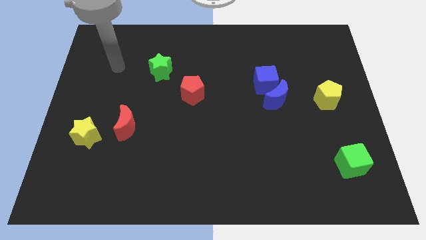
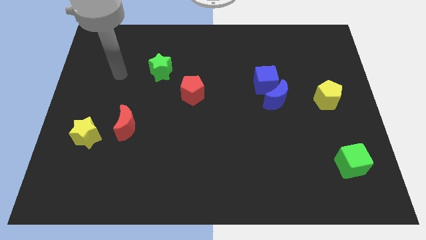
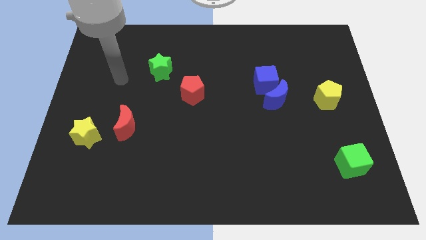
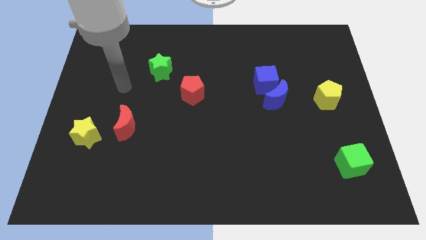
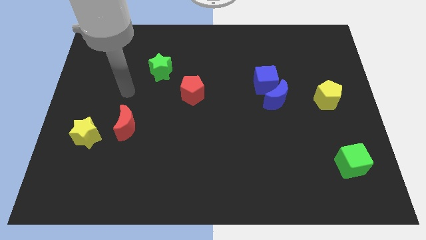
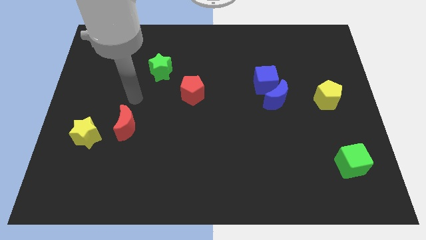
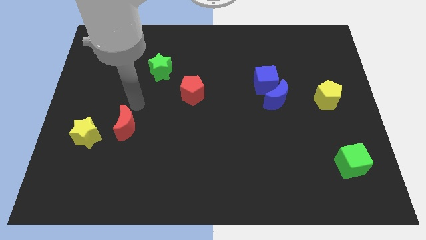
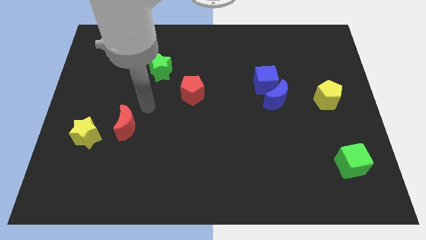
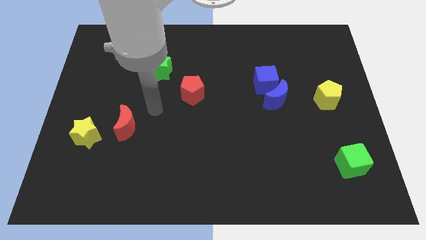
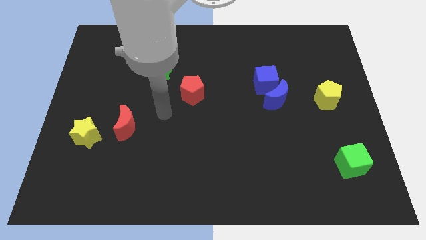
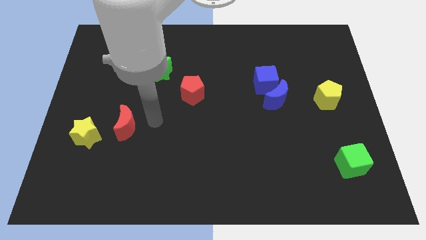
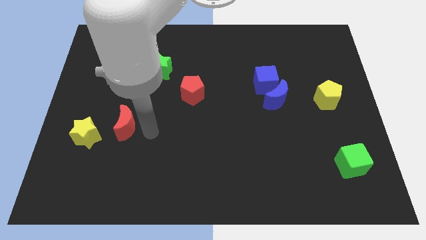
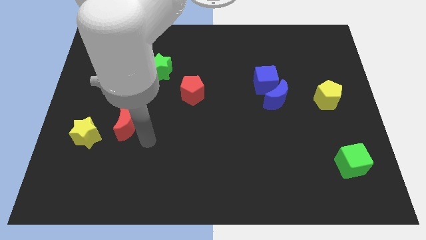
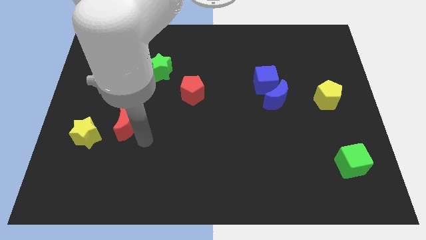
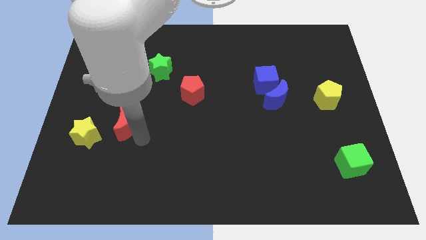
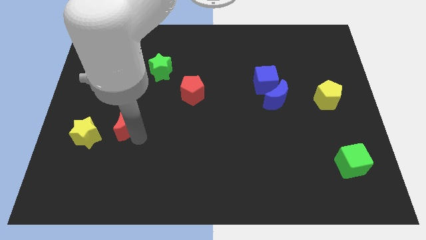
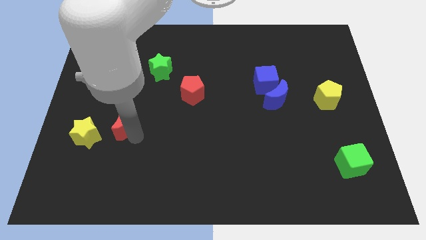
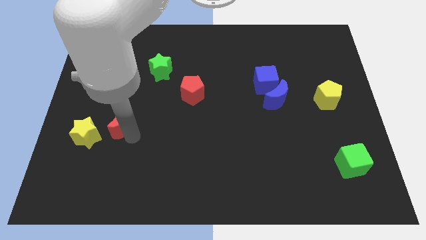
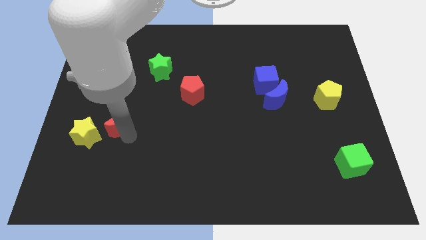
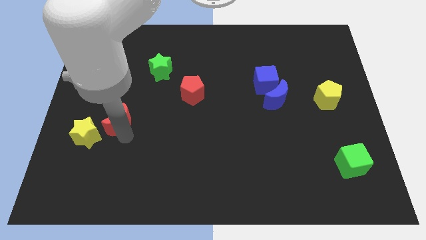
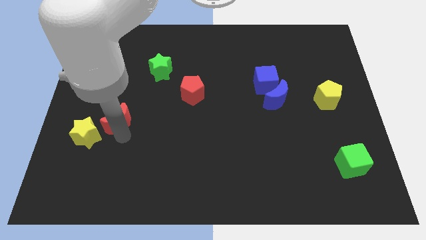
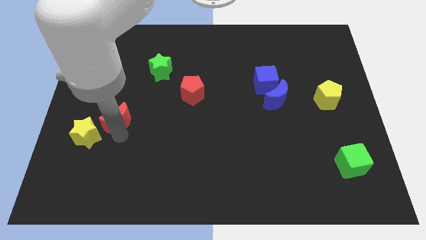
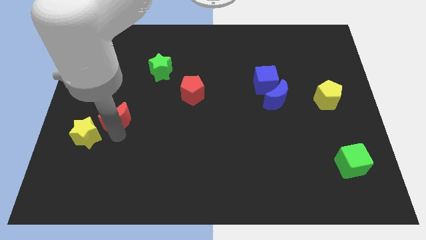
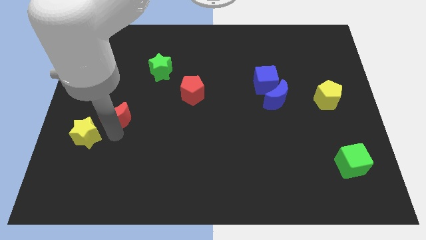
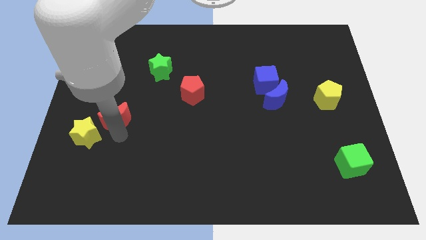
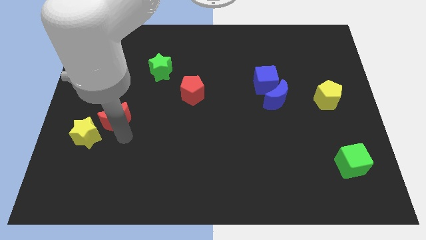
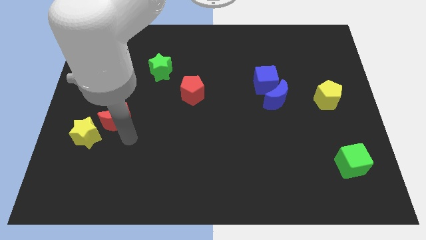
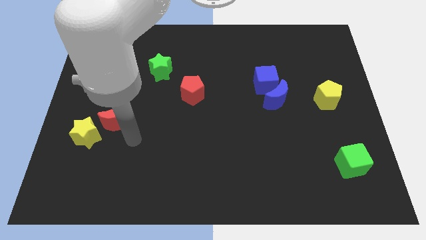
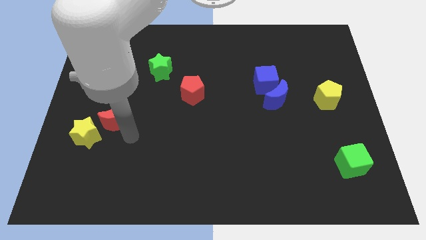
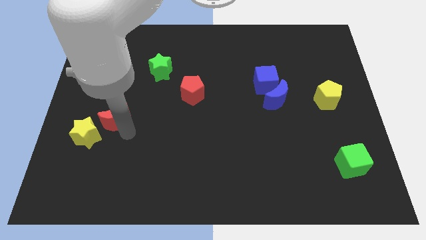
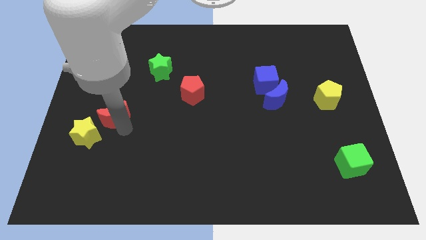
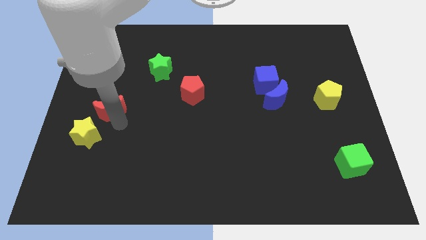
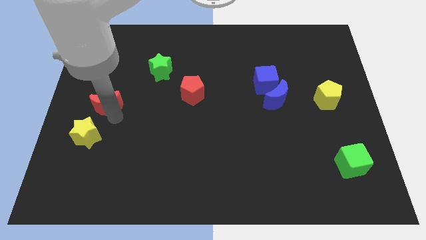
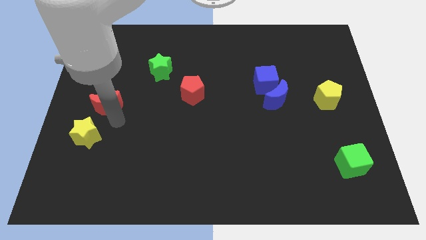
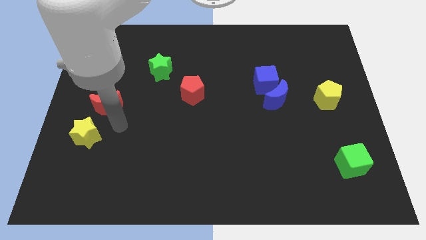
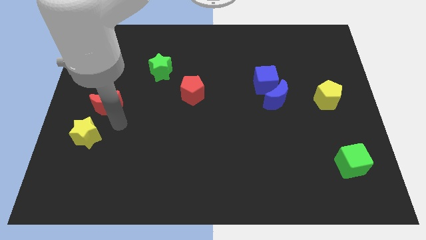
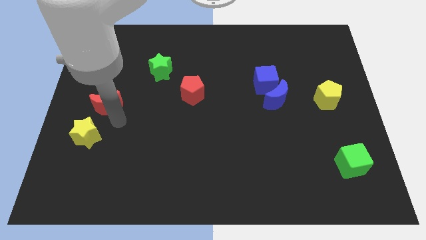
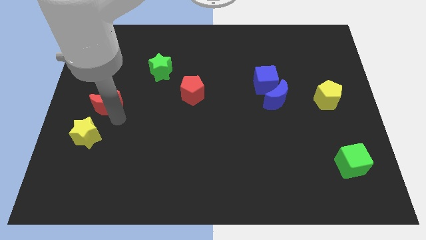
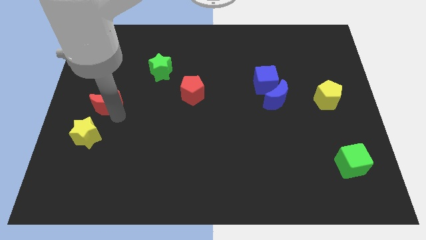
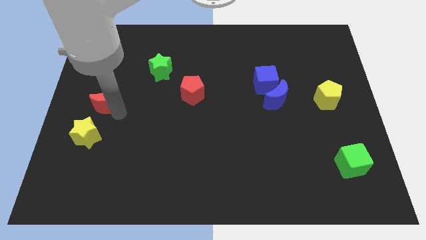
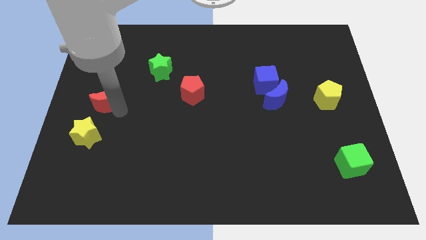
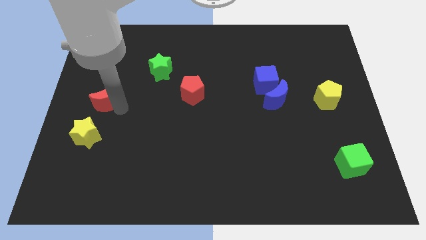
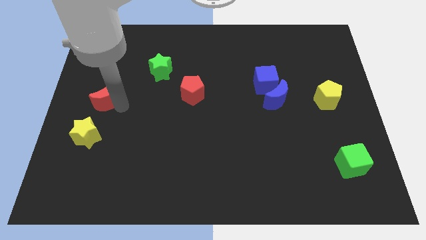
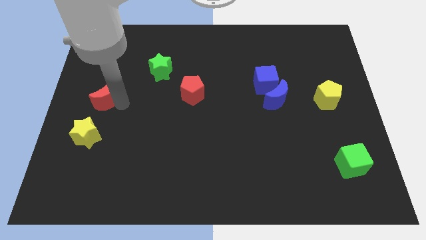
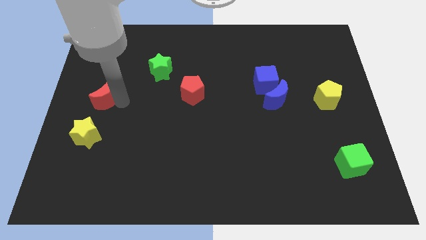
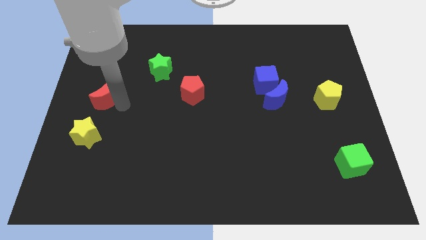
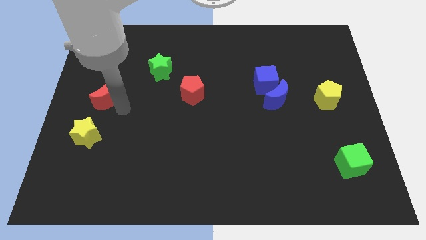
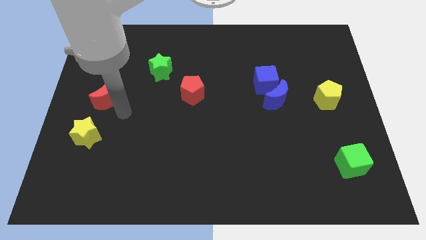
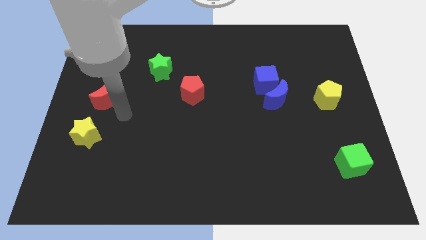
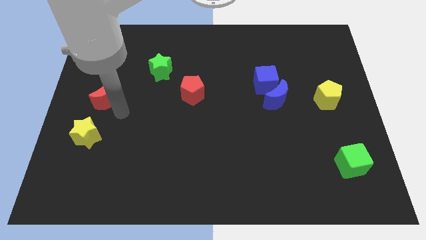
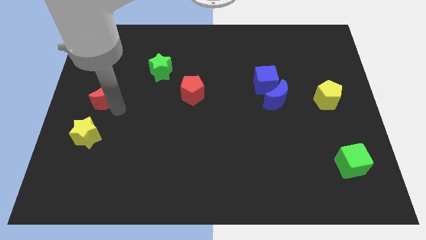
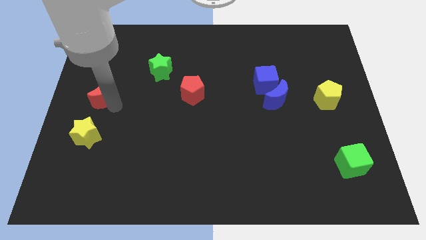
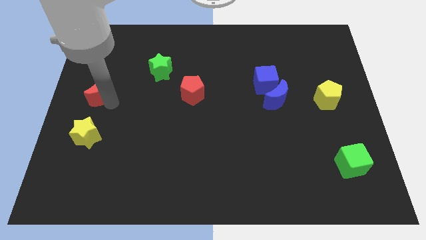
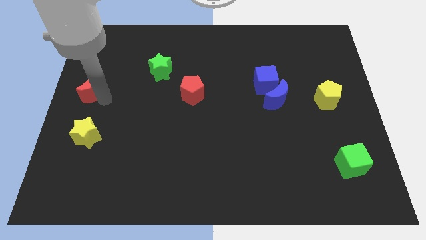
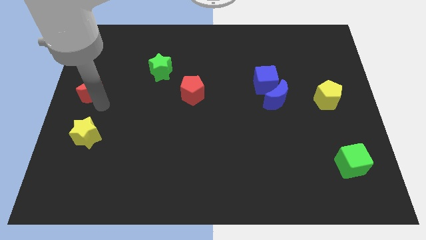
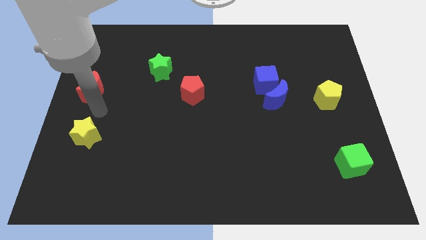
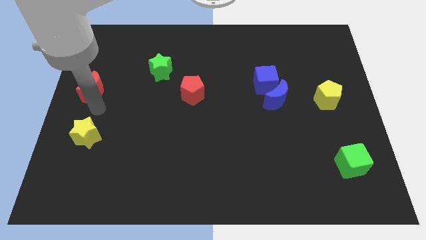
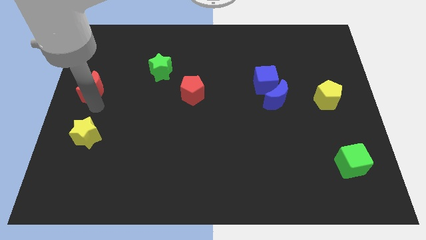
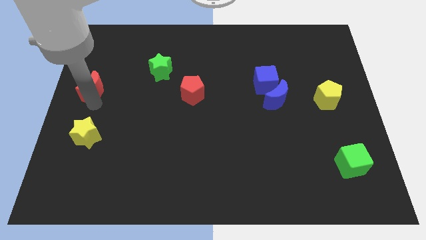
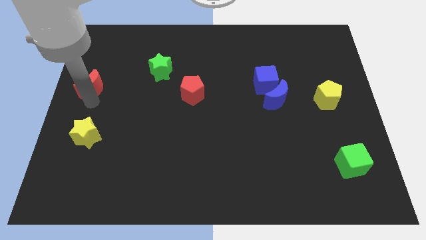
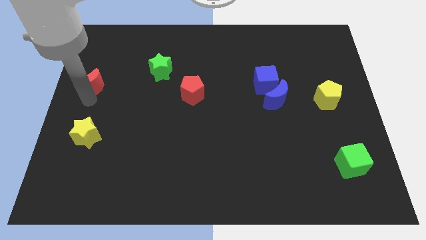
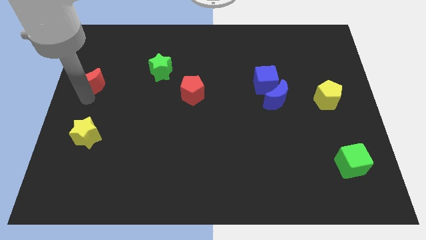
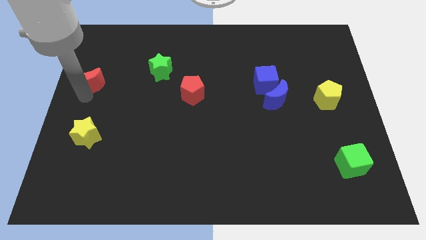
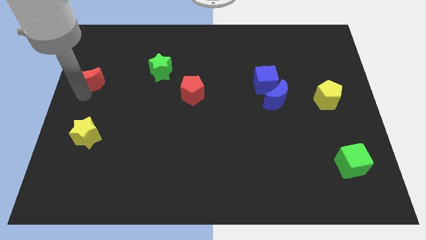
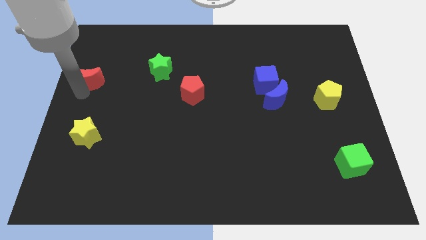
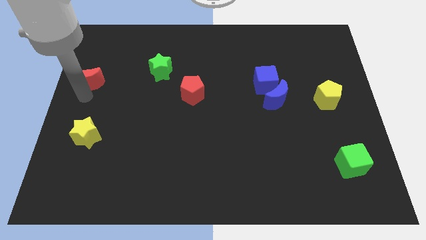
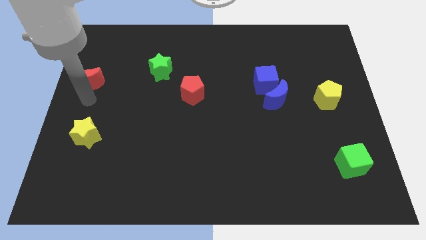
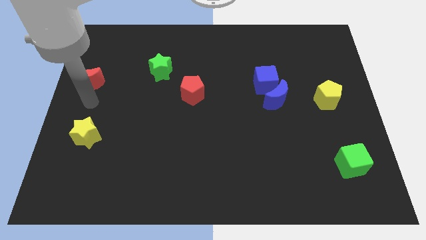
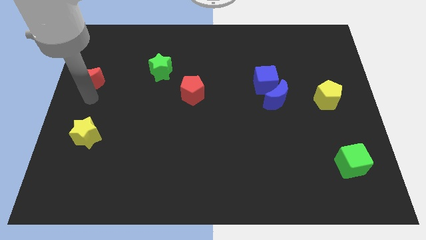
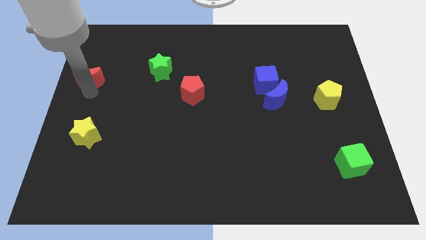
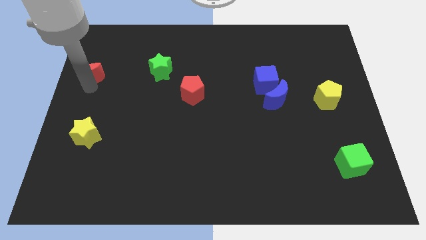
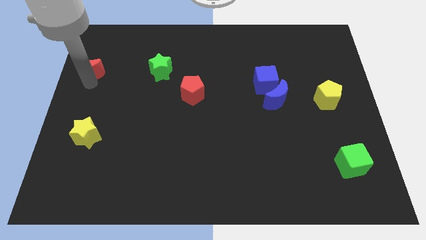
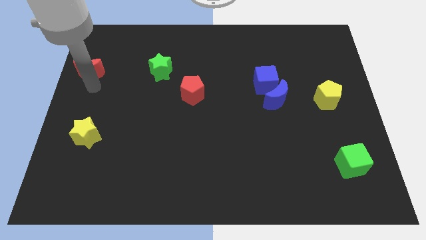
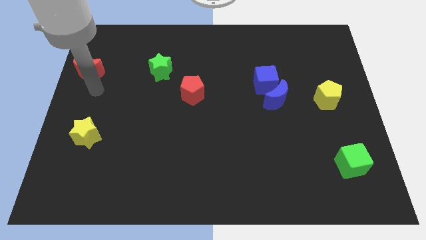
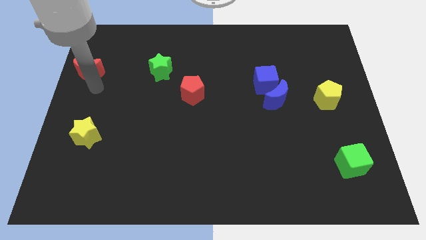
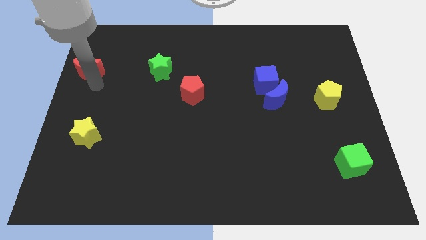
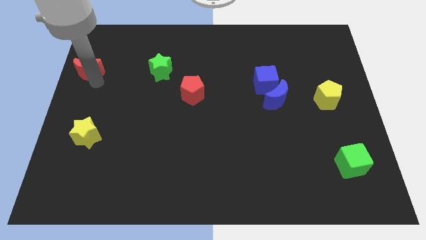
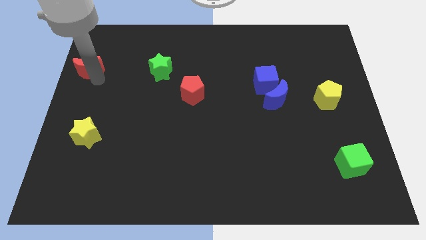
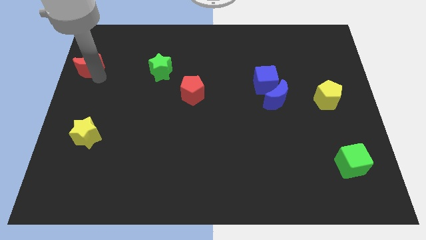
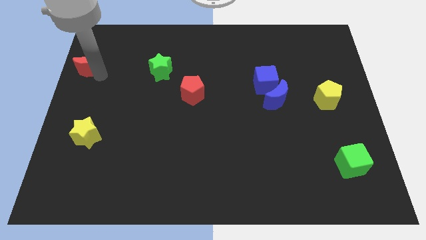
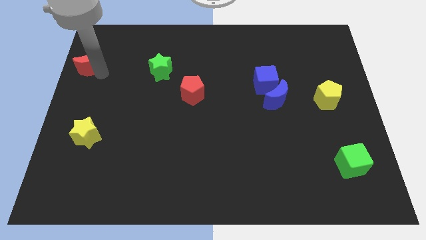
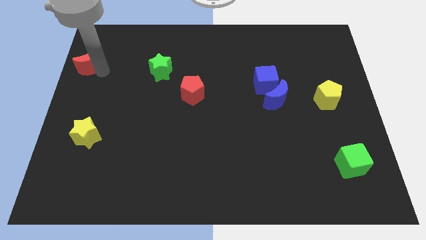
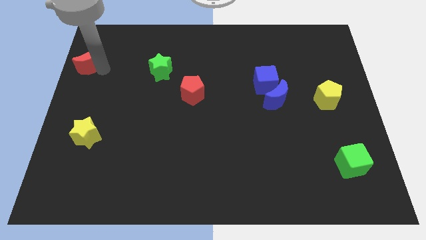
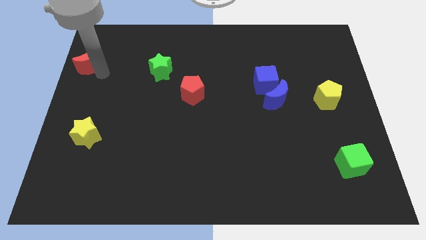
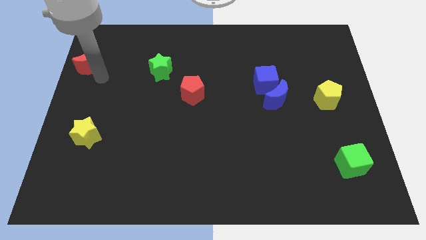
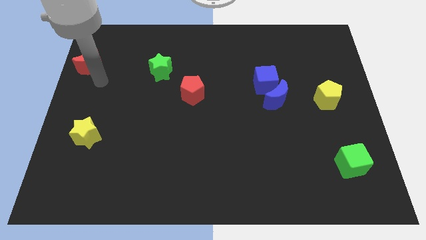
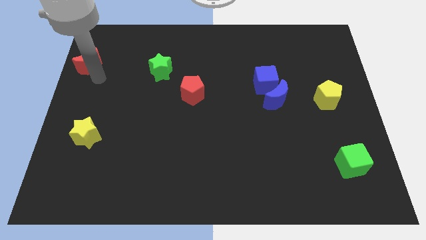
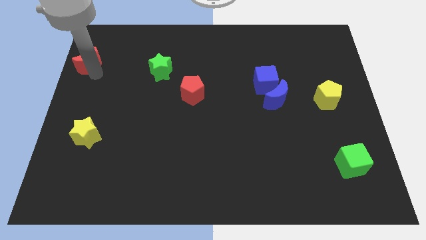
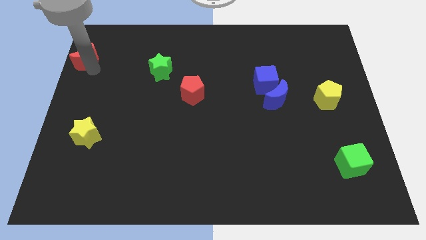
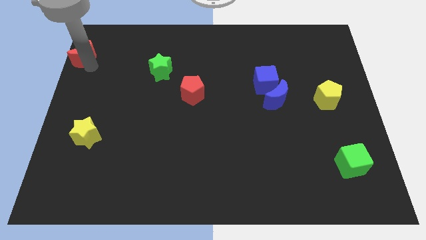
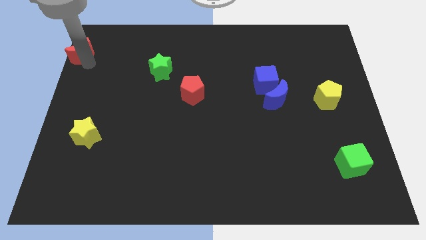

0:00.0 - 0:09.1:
push the red moon to the top left corner
